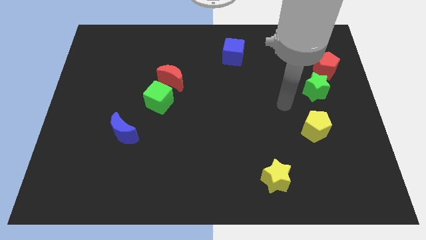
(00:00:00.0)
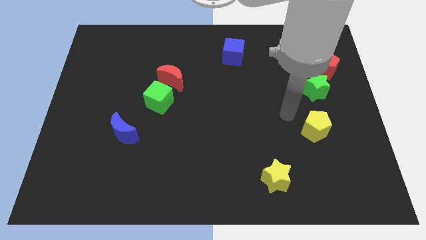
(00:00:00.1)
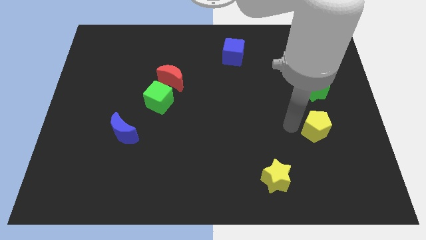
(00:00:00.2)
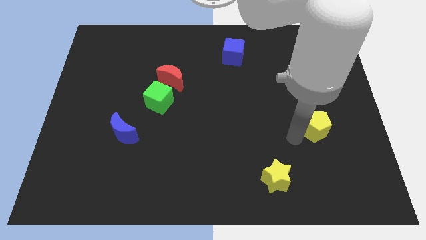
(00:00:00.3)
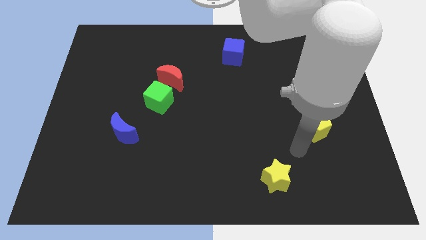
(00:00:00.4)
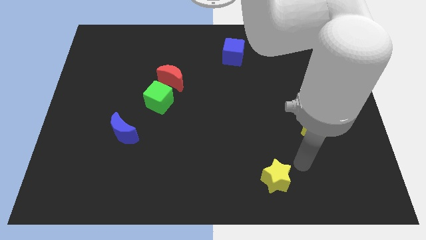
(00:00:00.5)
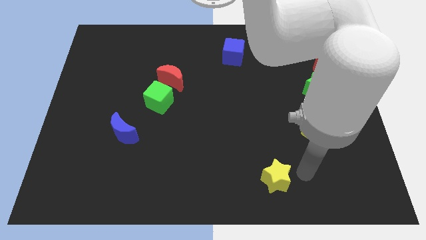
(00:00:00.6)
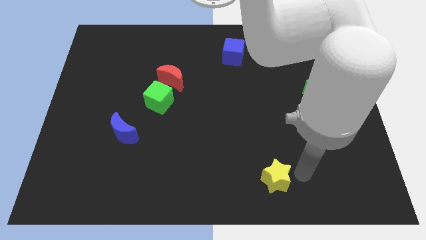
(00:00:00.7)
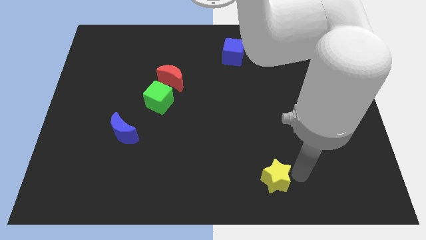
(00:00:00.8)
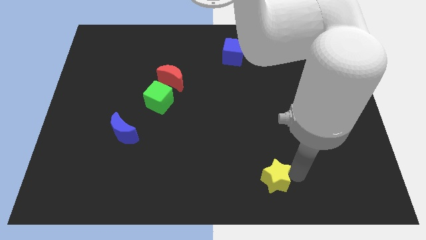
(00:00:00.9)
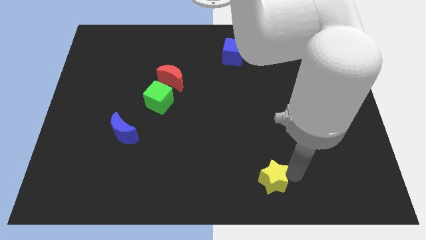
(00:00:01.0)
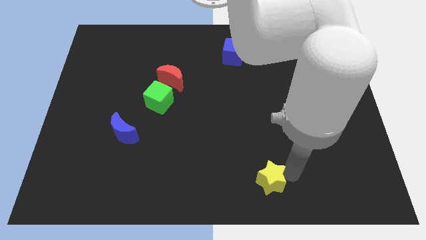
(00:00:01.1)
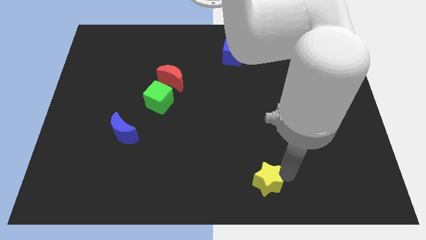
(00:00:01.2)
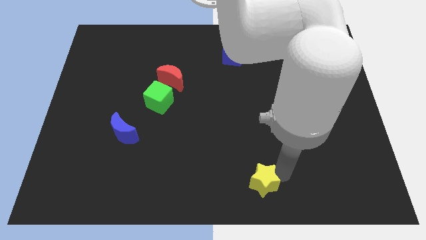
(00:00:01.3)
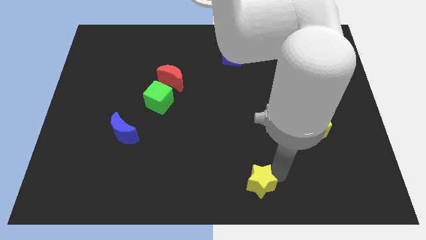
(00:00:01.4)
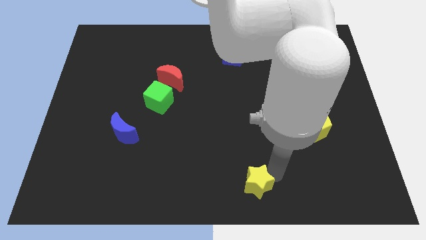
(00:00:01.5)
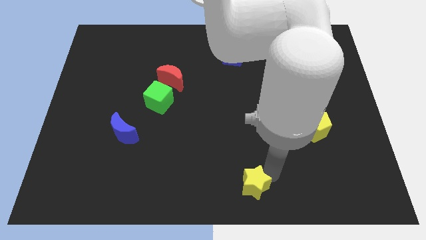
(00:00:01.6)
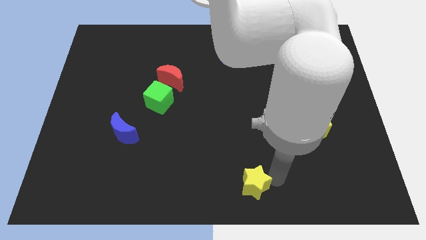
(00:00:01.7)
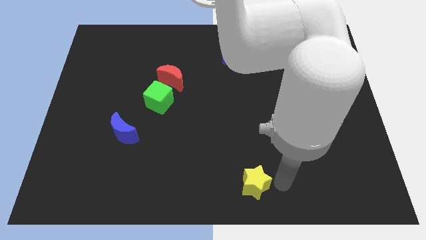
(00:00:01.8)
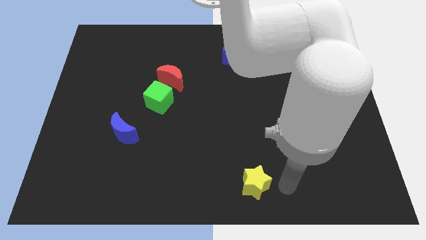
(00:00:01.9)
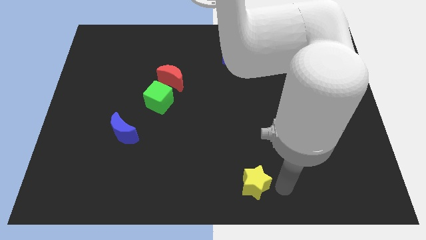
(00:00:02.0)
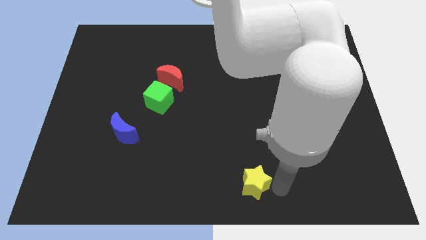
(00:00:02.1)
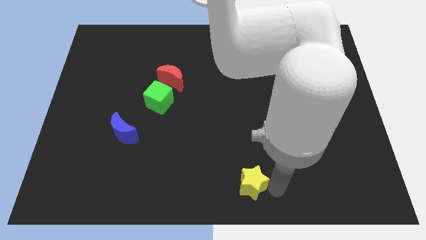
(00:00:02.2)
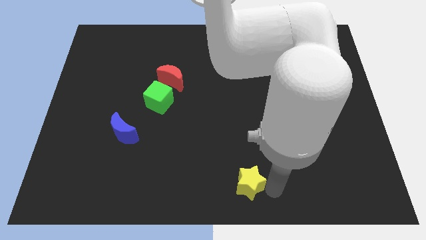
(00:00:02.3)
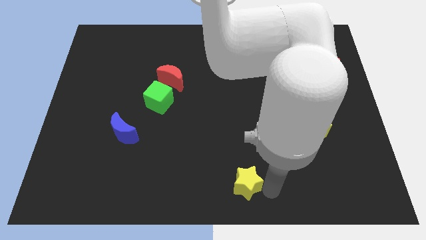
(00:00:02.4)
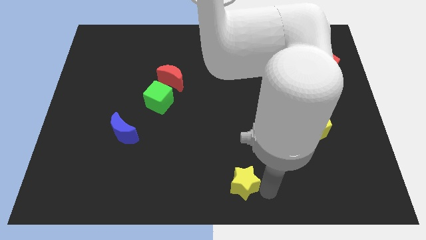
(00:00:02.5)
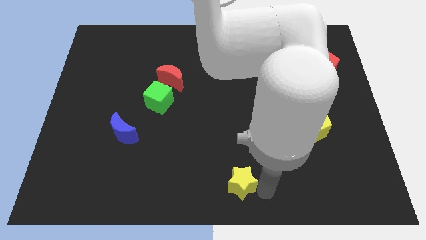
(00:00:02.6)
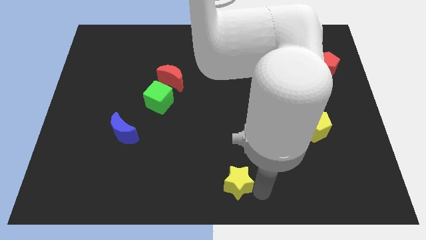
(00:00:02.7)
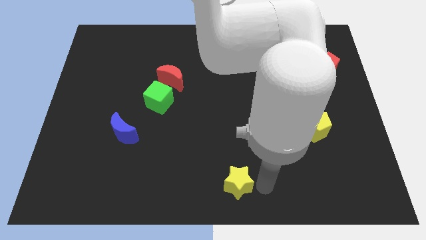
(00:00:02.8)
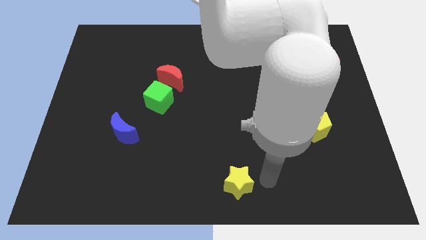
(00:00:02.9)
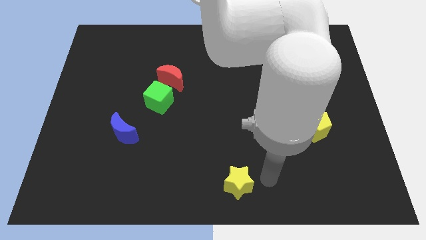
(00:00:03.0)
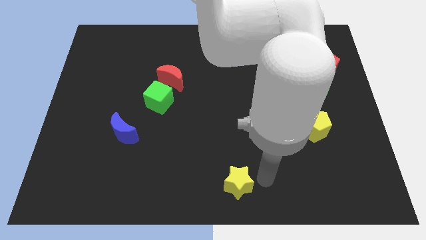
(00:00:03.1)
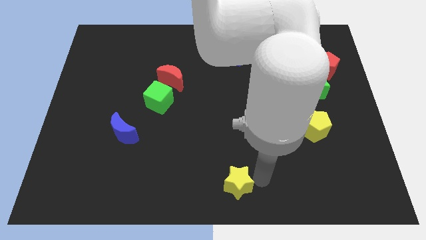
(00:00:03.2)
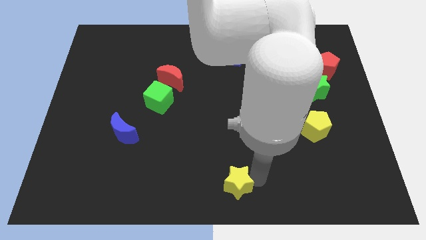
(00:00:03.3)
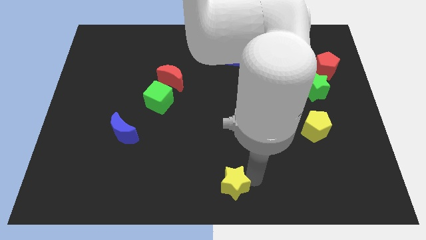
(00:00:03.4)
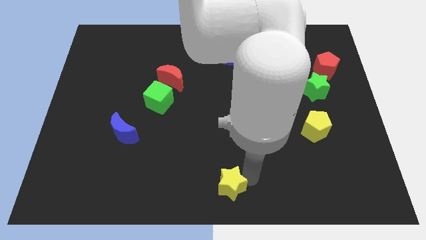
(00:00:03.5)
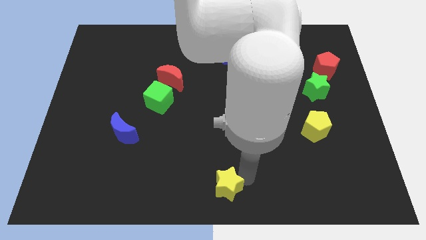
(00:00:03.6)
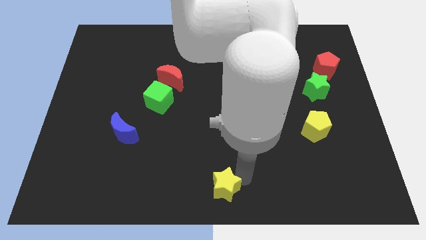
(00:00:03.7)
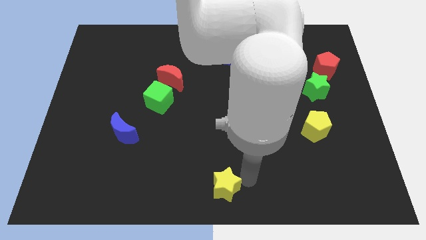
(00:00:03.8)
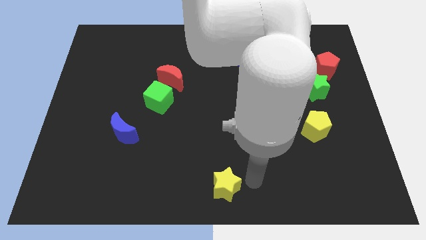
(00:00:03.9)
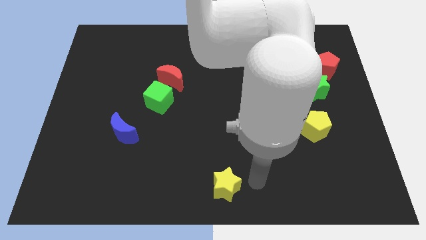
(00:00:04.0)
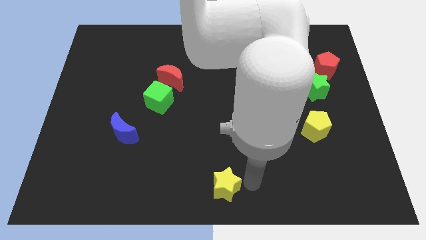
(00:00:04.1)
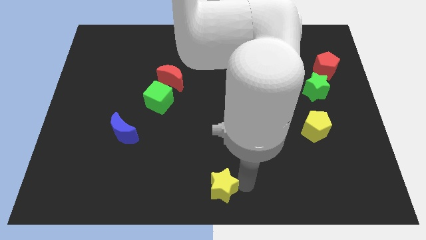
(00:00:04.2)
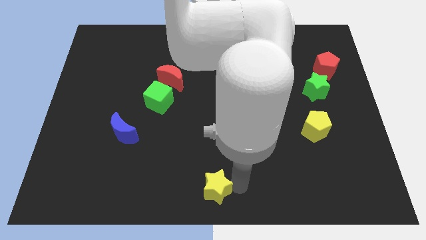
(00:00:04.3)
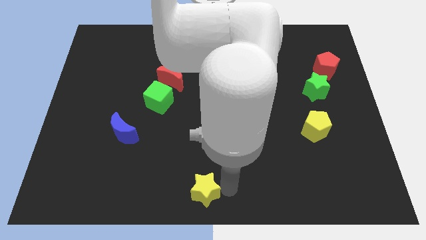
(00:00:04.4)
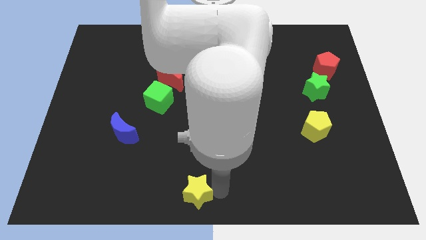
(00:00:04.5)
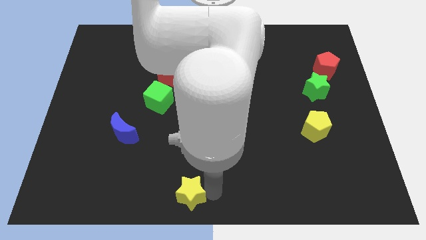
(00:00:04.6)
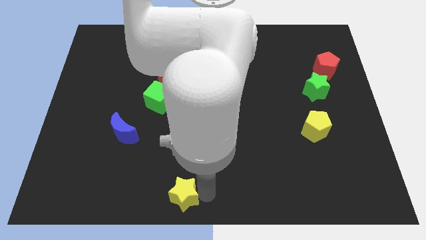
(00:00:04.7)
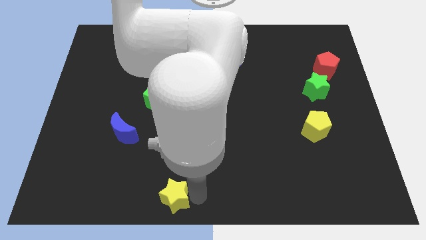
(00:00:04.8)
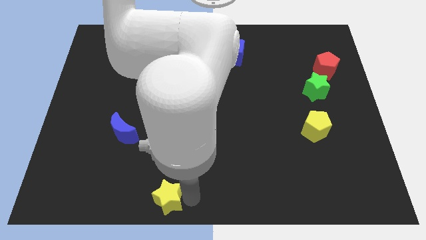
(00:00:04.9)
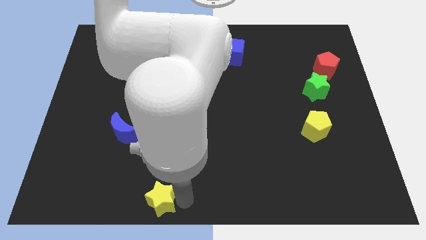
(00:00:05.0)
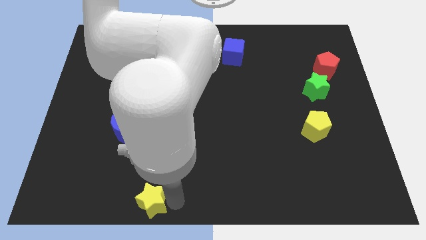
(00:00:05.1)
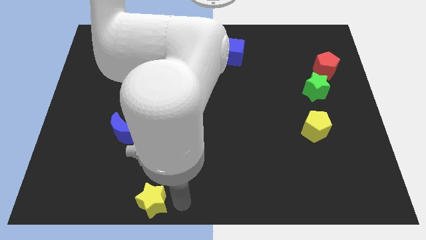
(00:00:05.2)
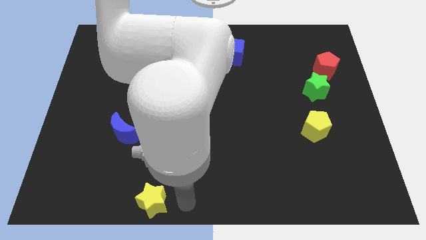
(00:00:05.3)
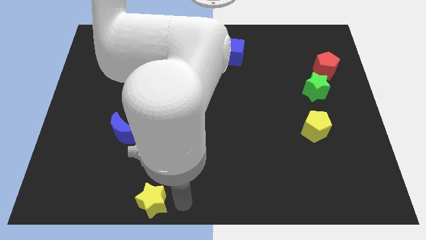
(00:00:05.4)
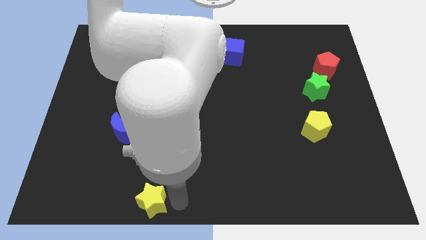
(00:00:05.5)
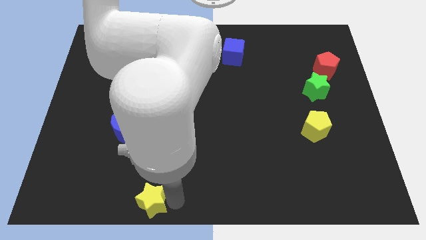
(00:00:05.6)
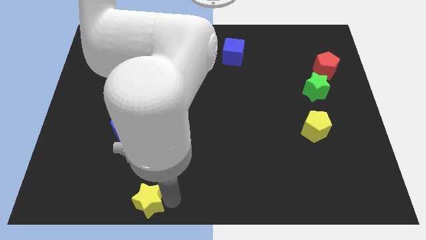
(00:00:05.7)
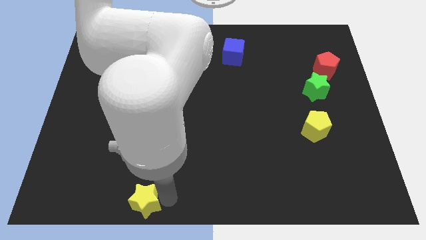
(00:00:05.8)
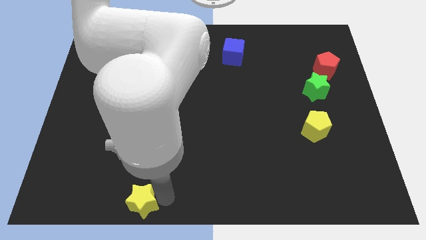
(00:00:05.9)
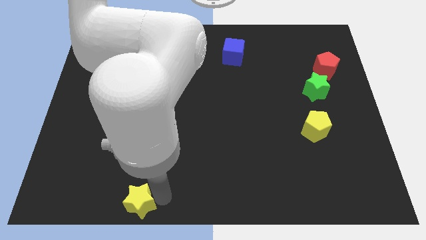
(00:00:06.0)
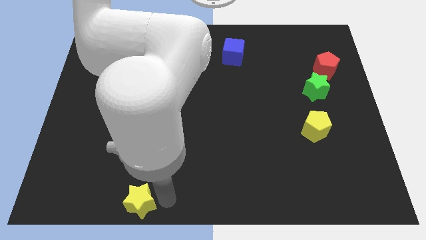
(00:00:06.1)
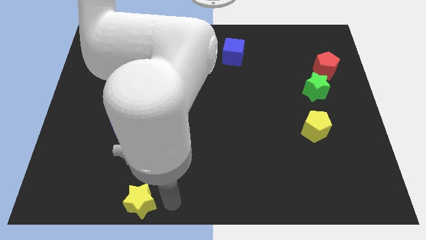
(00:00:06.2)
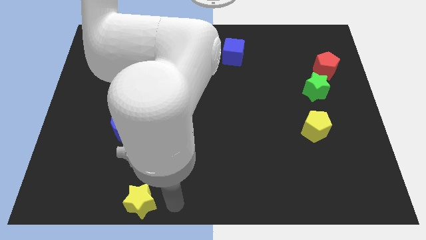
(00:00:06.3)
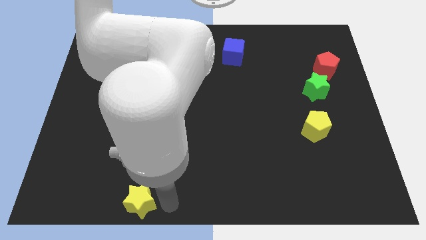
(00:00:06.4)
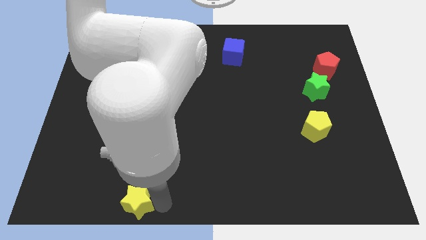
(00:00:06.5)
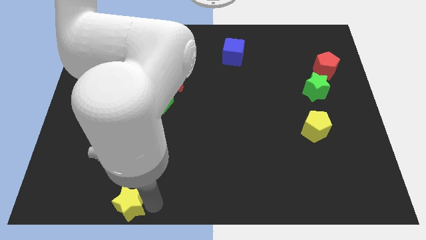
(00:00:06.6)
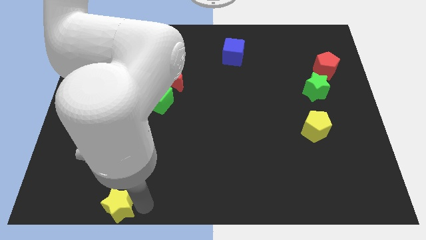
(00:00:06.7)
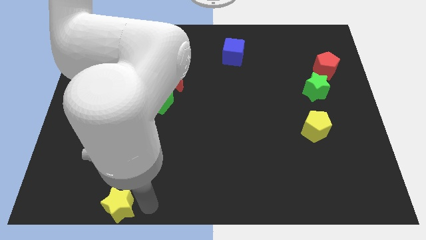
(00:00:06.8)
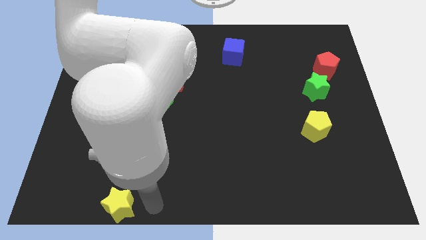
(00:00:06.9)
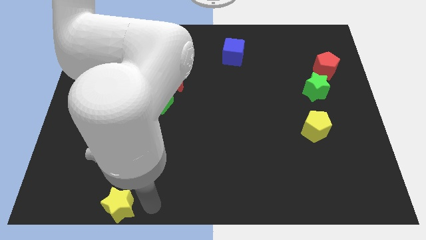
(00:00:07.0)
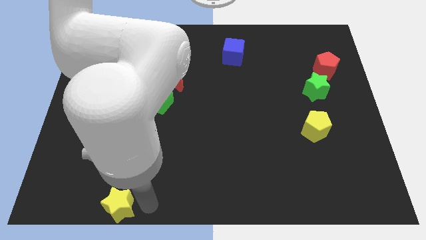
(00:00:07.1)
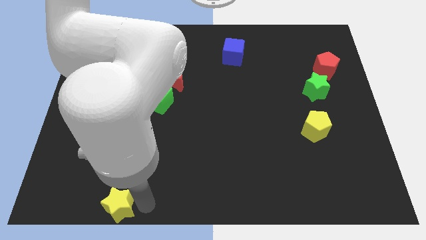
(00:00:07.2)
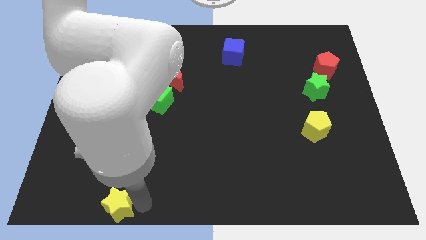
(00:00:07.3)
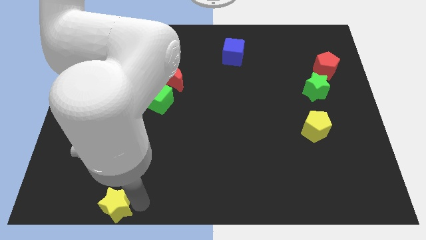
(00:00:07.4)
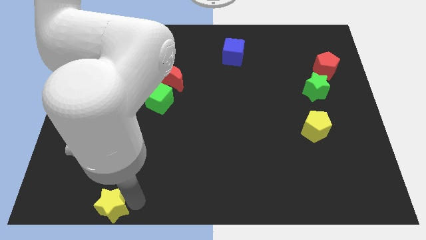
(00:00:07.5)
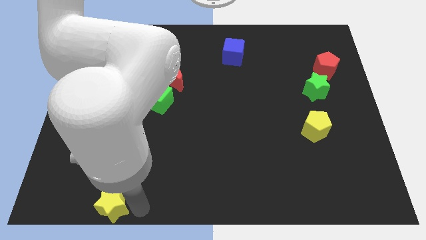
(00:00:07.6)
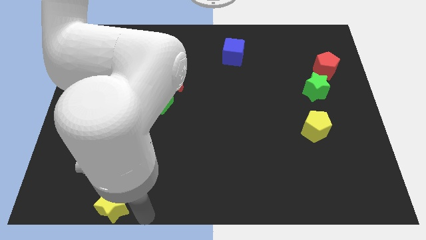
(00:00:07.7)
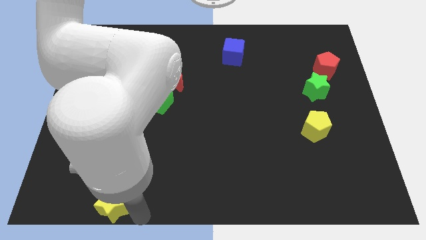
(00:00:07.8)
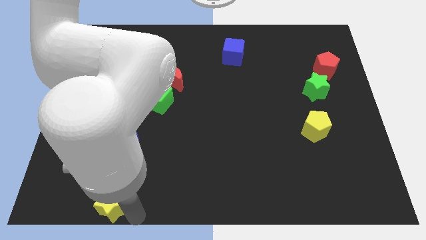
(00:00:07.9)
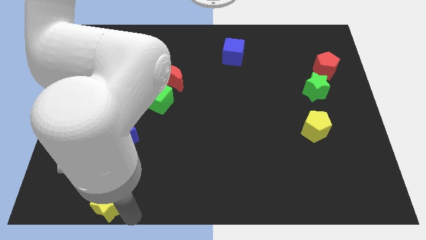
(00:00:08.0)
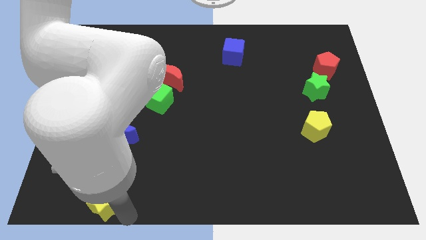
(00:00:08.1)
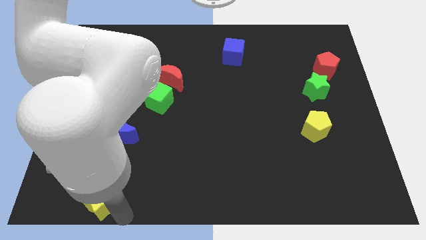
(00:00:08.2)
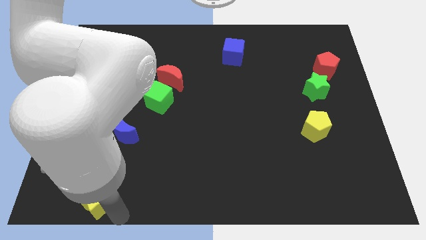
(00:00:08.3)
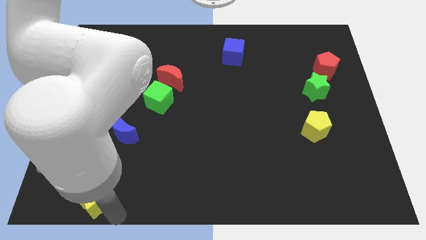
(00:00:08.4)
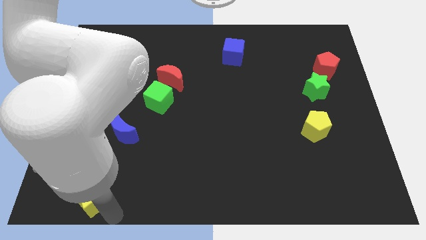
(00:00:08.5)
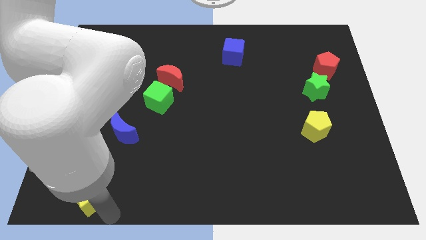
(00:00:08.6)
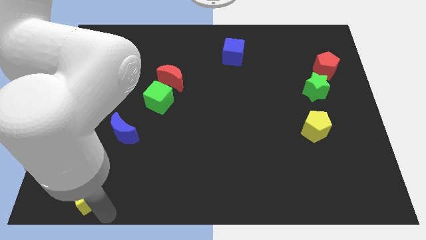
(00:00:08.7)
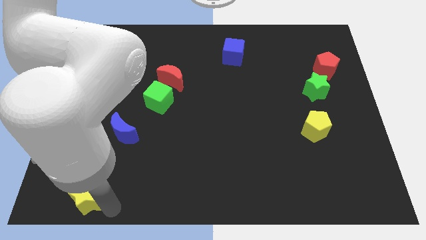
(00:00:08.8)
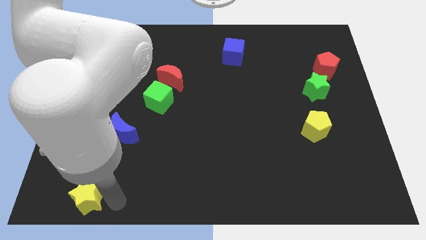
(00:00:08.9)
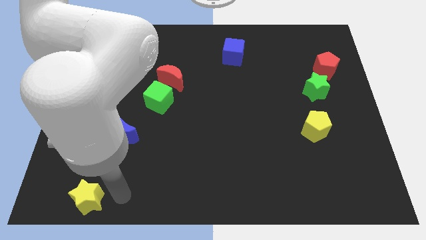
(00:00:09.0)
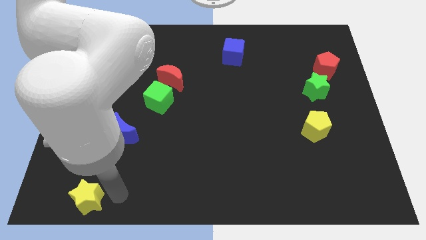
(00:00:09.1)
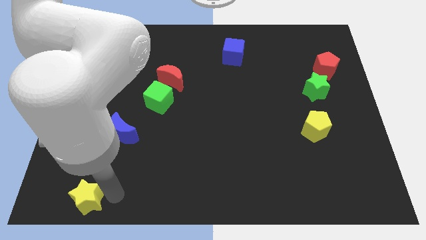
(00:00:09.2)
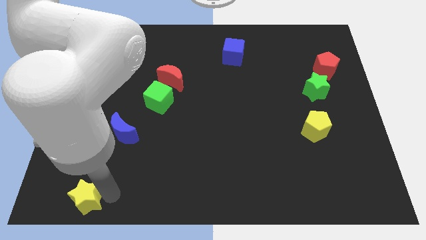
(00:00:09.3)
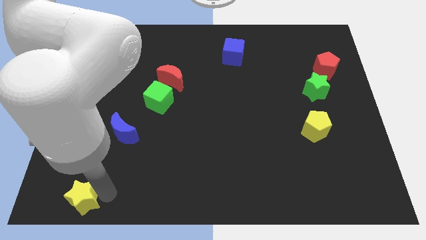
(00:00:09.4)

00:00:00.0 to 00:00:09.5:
slide the yellow star to the lower left corner
